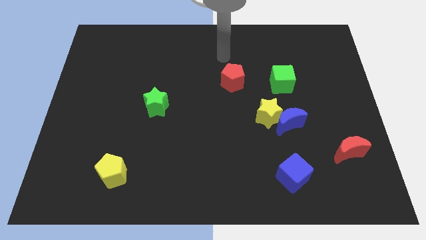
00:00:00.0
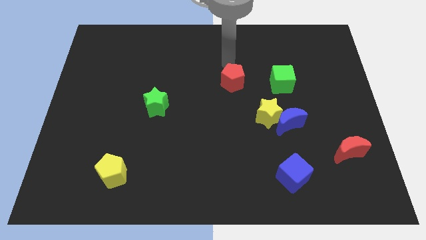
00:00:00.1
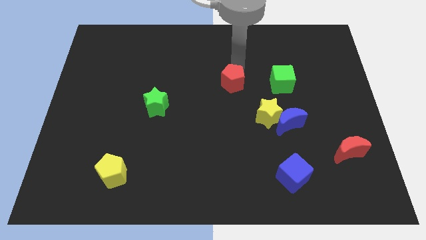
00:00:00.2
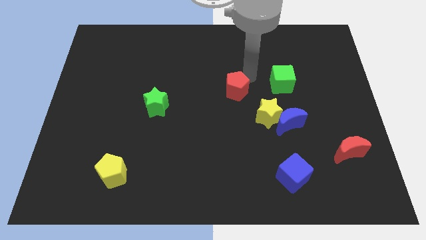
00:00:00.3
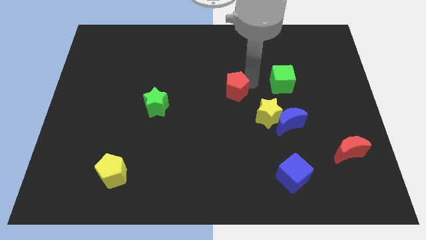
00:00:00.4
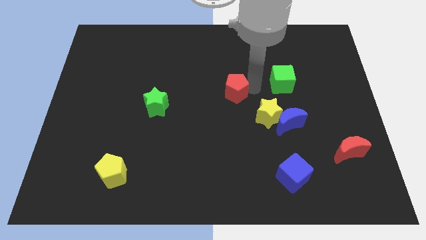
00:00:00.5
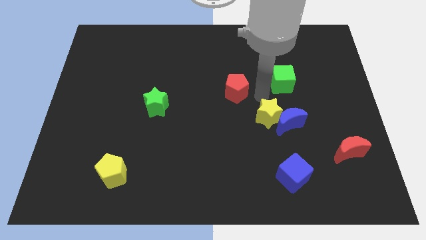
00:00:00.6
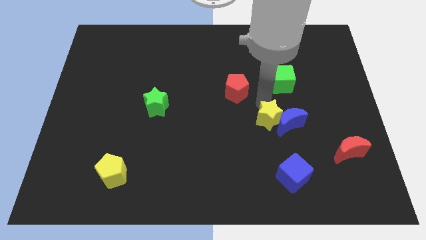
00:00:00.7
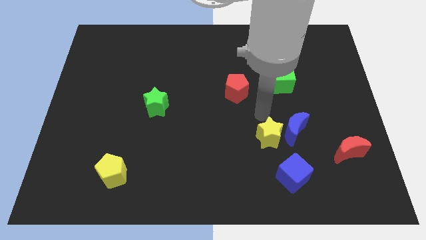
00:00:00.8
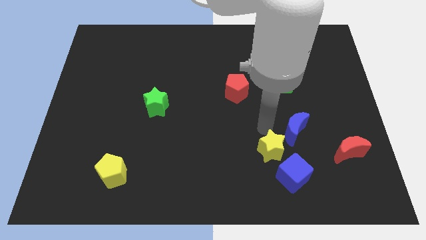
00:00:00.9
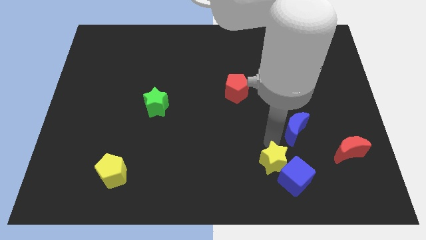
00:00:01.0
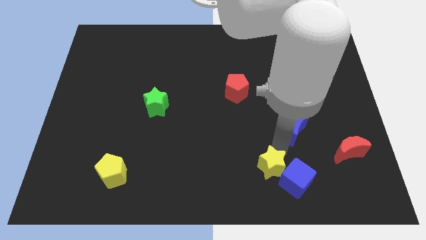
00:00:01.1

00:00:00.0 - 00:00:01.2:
separate the blue moon from the yellow star

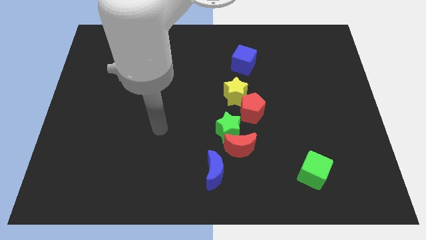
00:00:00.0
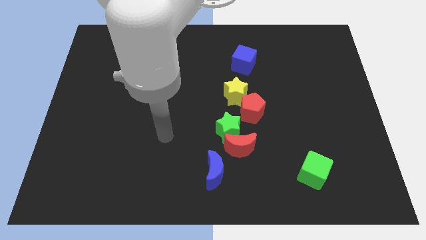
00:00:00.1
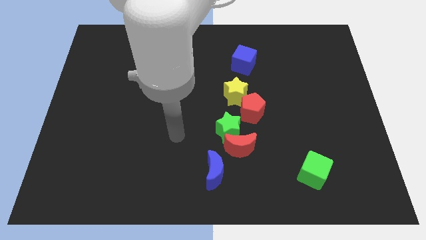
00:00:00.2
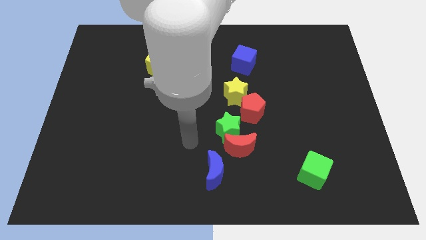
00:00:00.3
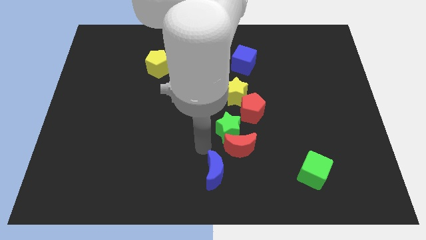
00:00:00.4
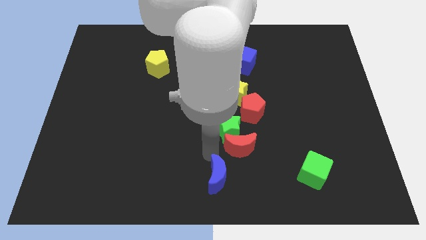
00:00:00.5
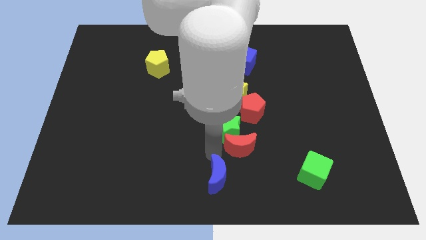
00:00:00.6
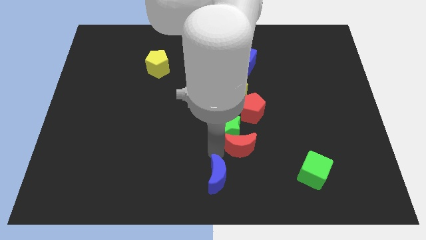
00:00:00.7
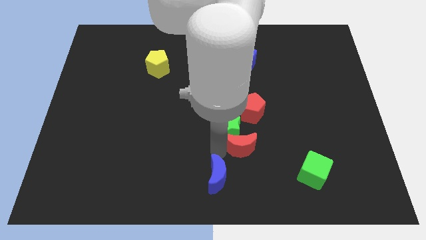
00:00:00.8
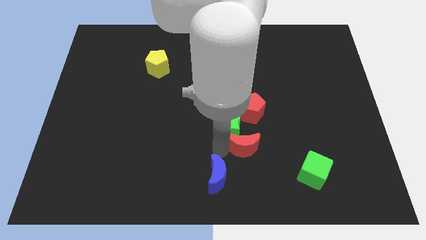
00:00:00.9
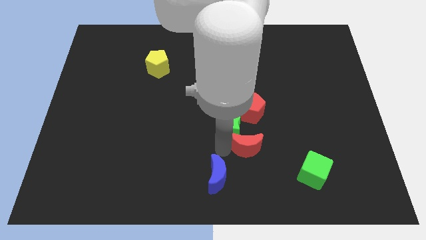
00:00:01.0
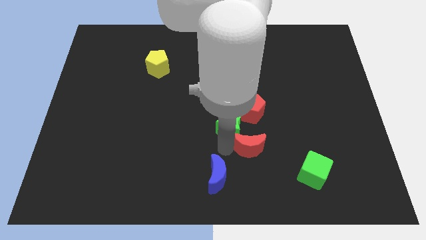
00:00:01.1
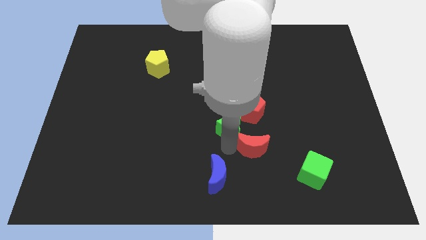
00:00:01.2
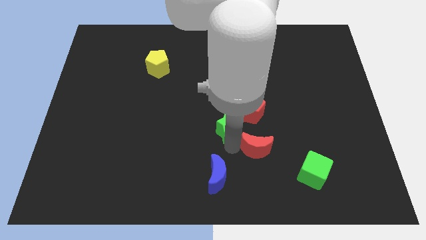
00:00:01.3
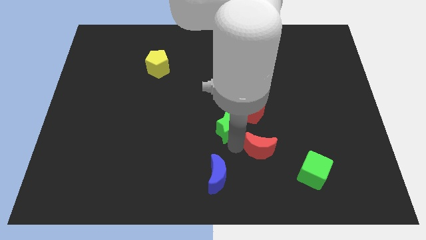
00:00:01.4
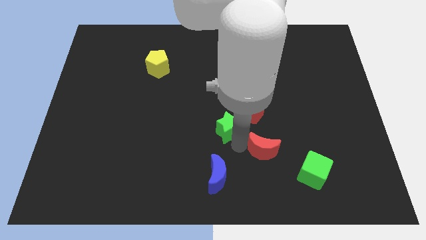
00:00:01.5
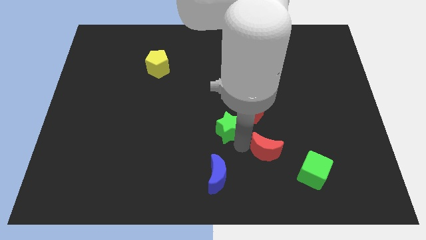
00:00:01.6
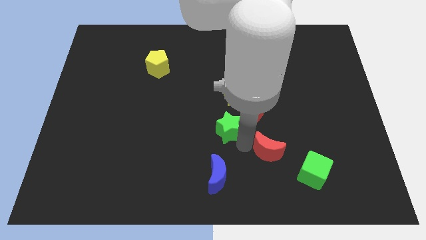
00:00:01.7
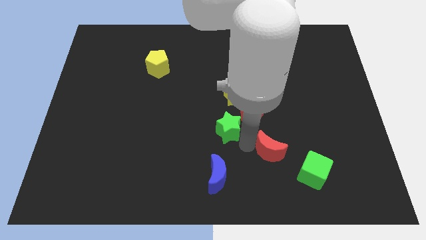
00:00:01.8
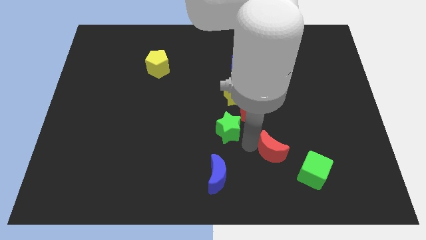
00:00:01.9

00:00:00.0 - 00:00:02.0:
move the red moon away from the green star and blue moon

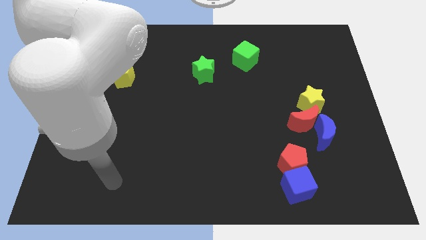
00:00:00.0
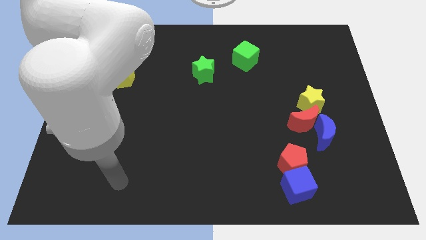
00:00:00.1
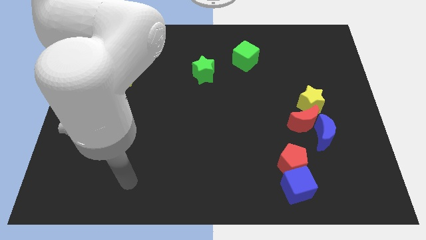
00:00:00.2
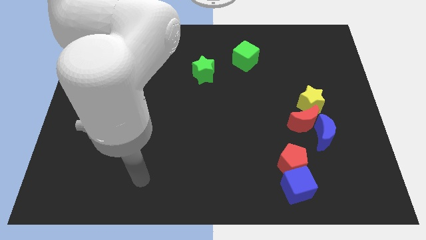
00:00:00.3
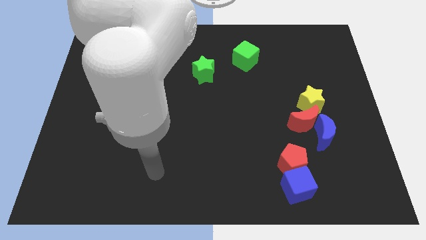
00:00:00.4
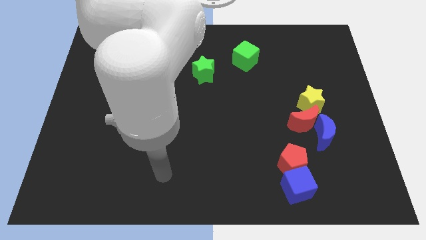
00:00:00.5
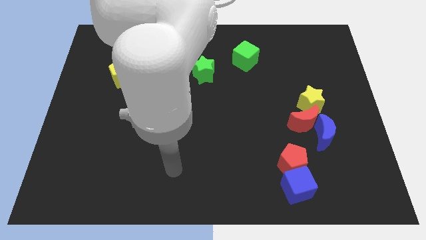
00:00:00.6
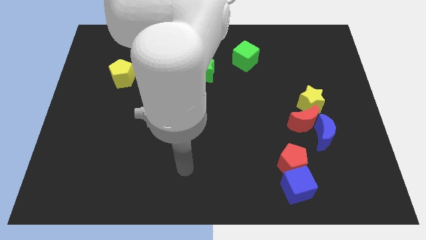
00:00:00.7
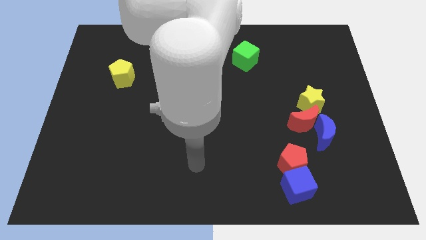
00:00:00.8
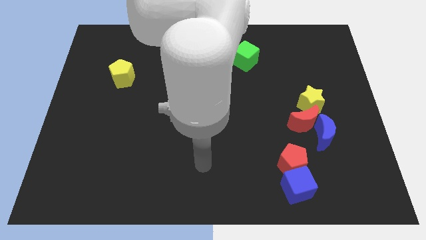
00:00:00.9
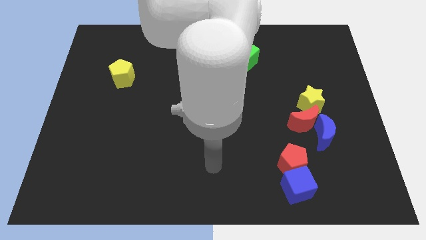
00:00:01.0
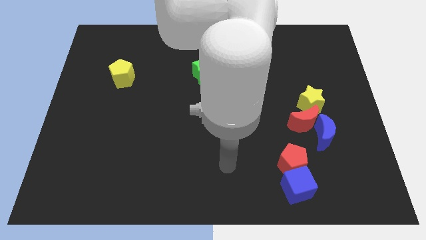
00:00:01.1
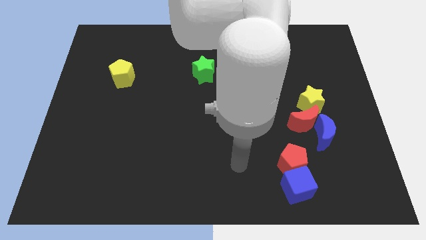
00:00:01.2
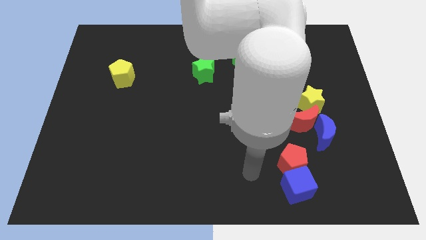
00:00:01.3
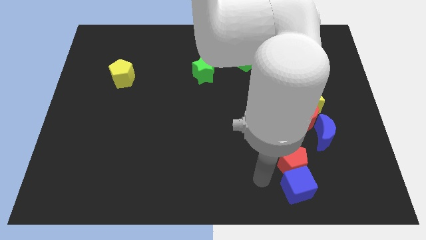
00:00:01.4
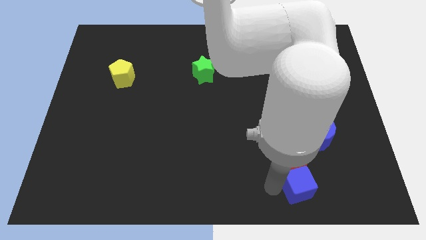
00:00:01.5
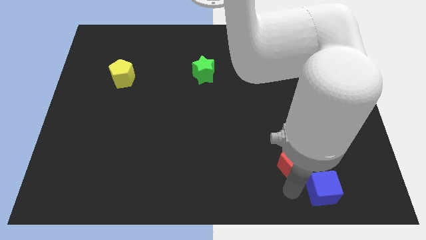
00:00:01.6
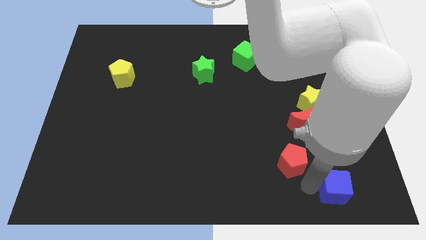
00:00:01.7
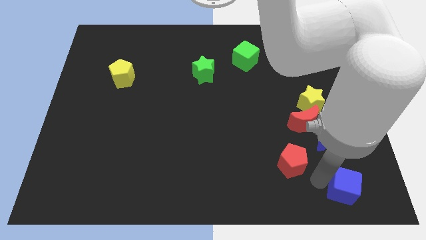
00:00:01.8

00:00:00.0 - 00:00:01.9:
move the red pentagon away from the blue cube

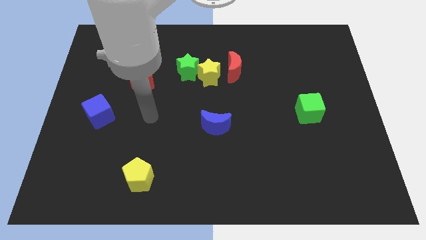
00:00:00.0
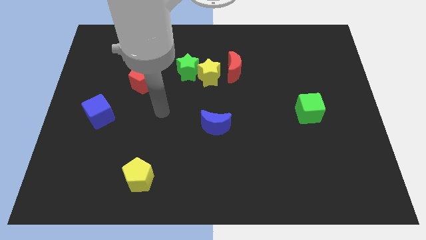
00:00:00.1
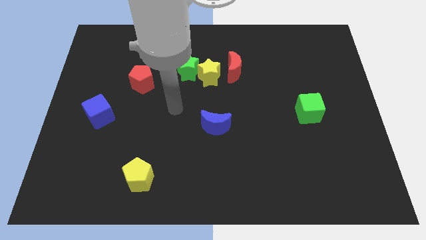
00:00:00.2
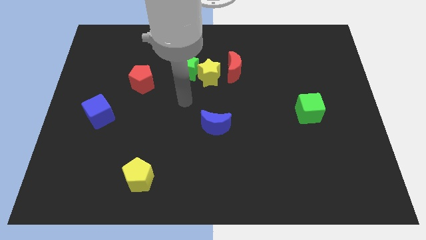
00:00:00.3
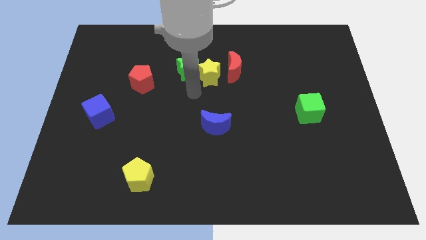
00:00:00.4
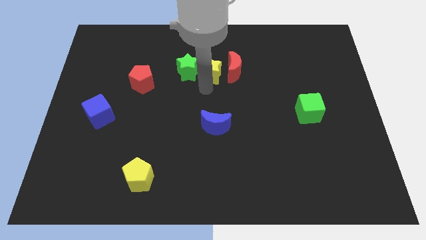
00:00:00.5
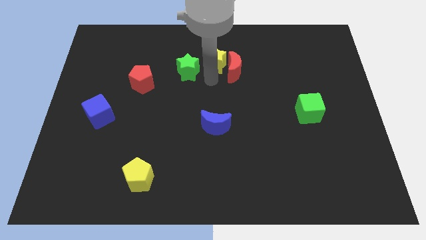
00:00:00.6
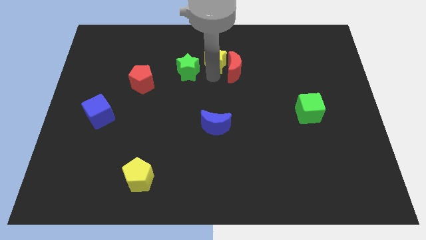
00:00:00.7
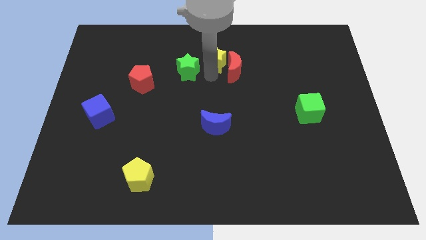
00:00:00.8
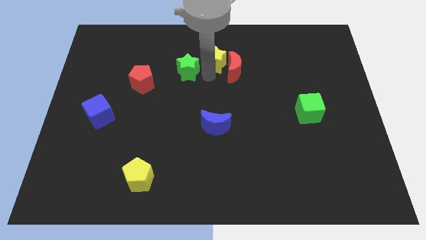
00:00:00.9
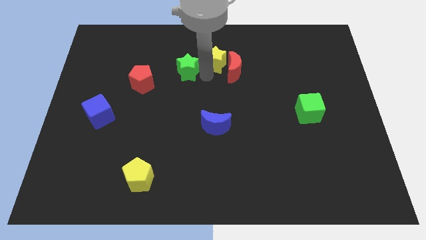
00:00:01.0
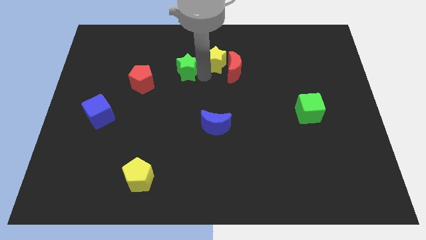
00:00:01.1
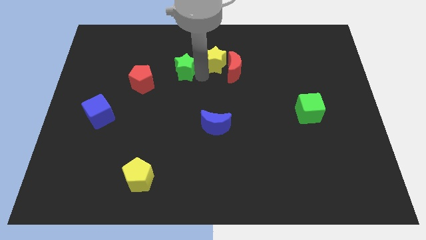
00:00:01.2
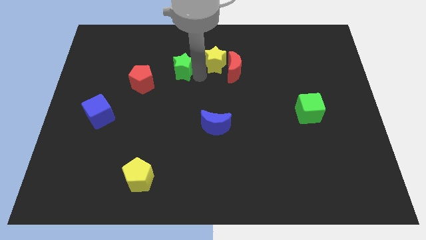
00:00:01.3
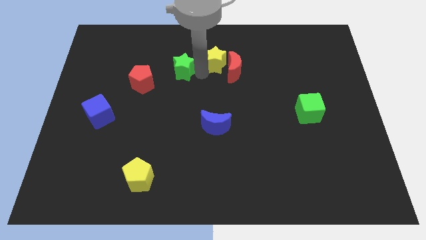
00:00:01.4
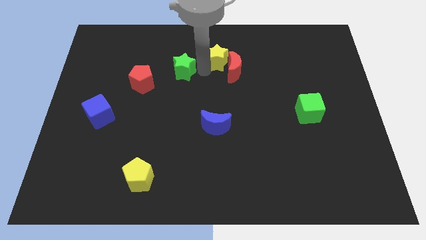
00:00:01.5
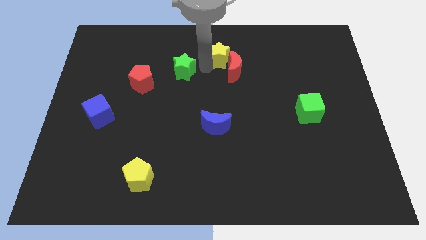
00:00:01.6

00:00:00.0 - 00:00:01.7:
pull the green star apart from the yellow star

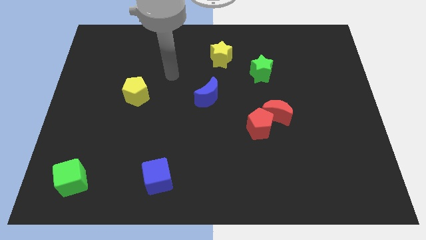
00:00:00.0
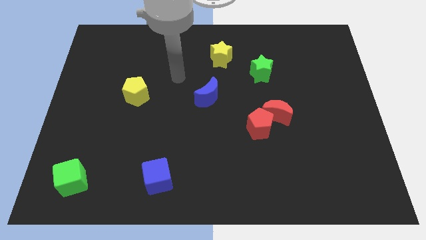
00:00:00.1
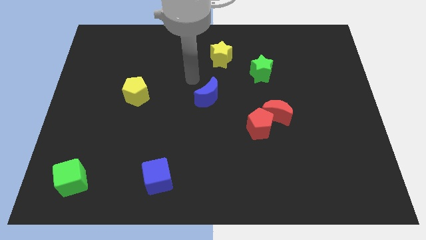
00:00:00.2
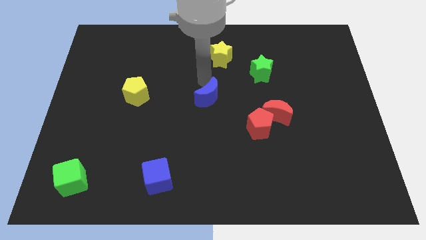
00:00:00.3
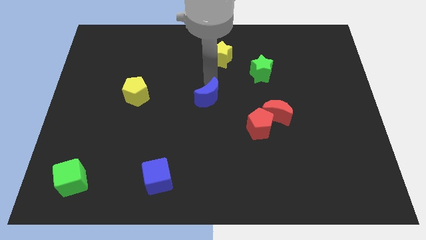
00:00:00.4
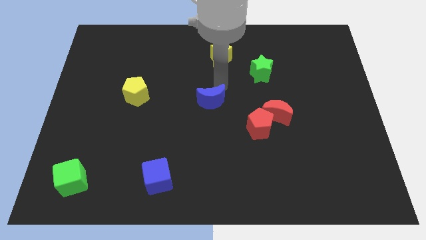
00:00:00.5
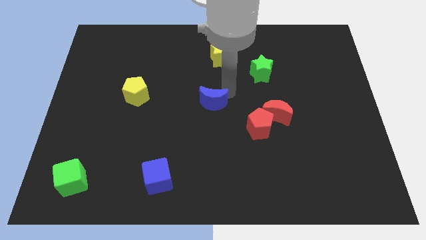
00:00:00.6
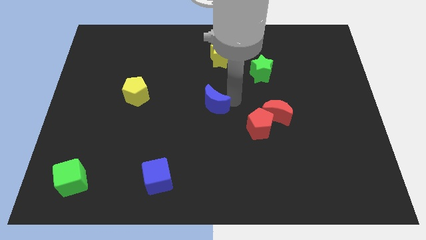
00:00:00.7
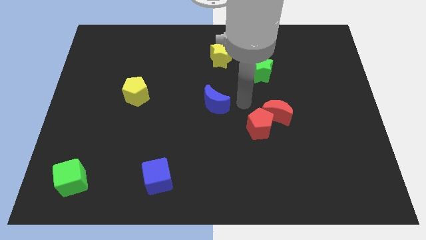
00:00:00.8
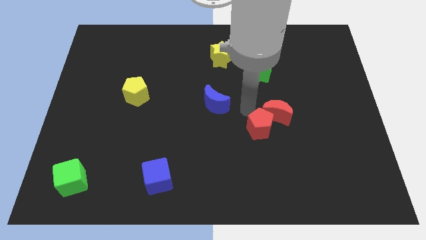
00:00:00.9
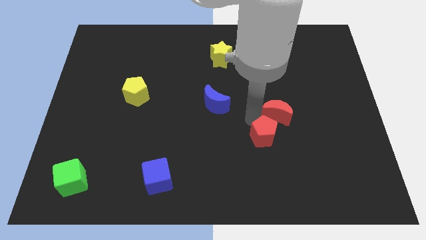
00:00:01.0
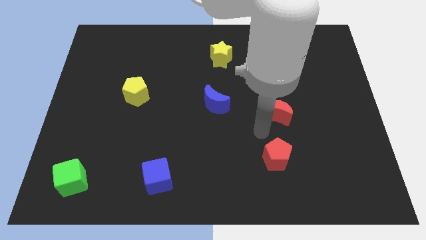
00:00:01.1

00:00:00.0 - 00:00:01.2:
move the red moon away from the red pentagon

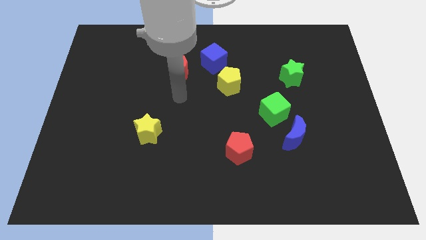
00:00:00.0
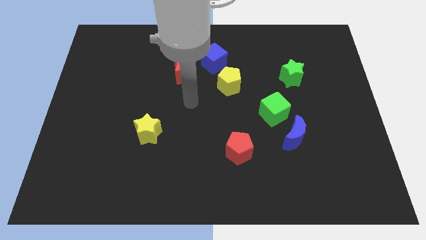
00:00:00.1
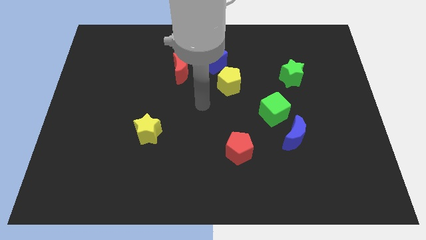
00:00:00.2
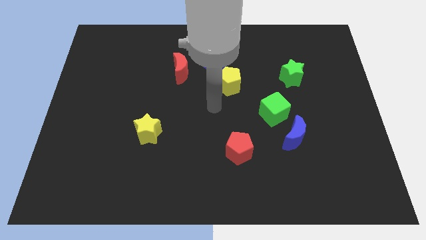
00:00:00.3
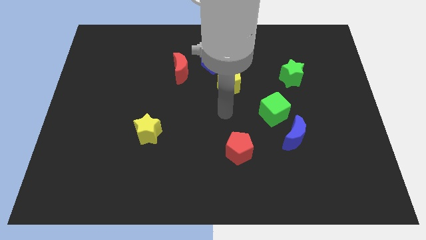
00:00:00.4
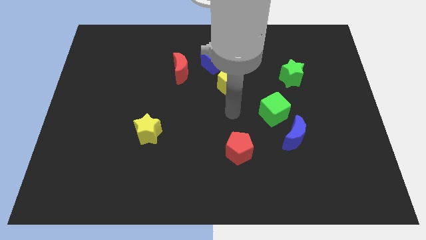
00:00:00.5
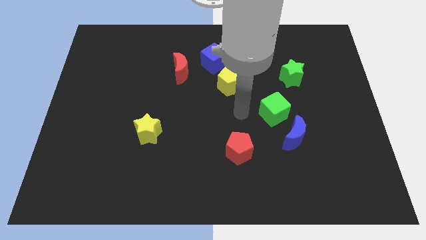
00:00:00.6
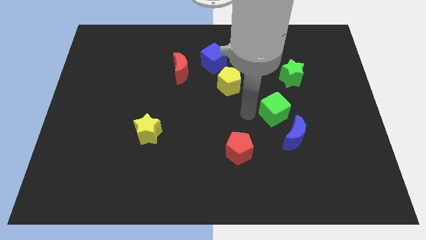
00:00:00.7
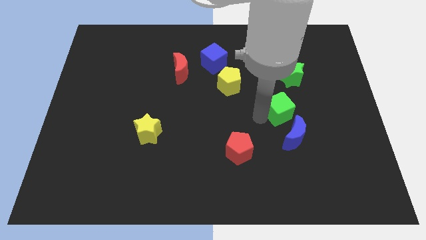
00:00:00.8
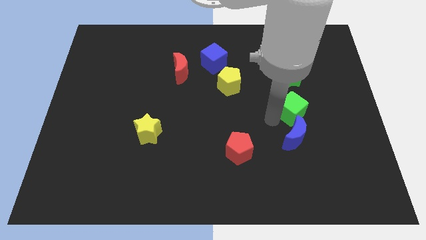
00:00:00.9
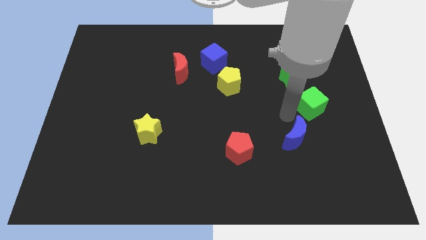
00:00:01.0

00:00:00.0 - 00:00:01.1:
move the blue moon away from the green cube

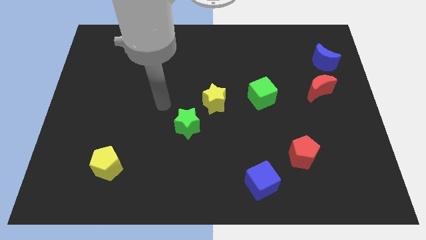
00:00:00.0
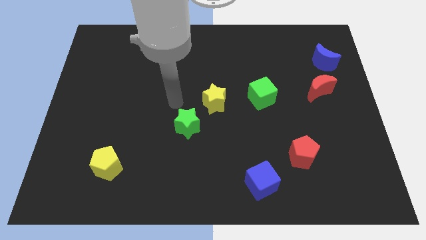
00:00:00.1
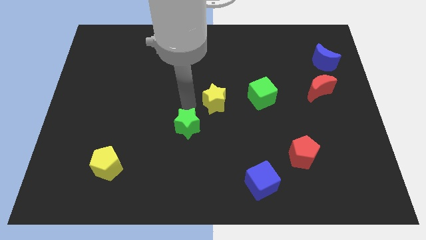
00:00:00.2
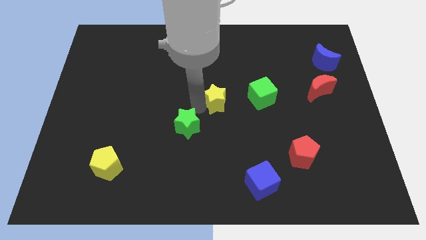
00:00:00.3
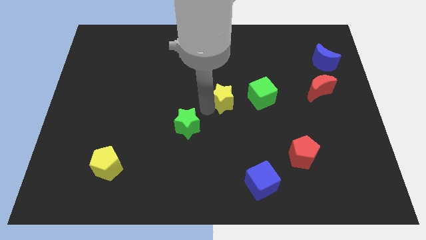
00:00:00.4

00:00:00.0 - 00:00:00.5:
move the green star away from the yellow star
